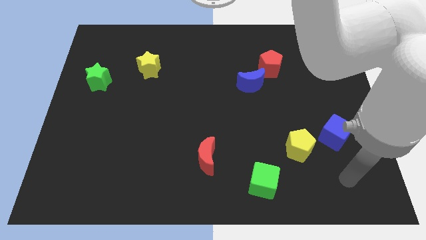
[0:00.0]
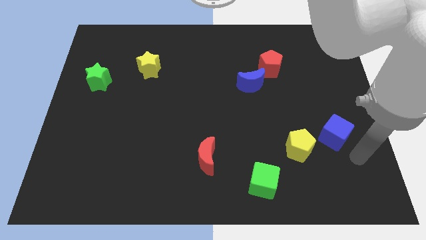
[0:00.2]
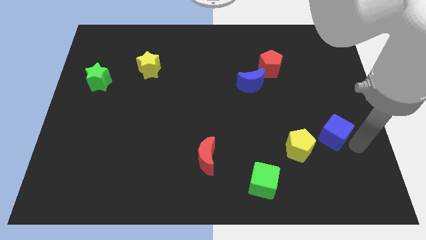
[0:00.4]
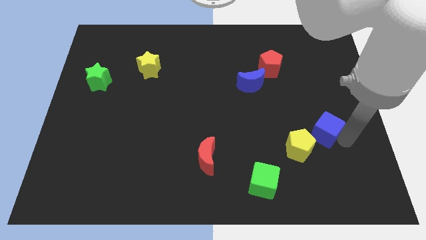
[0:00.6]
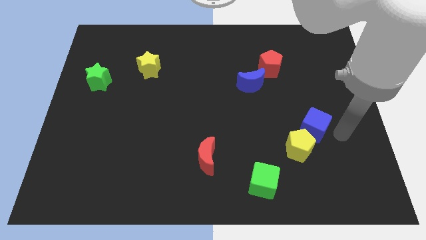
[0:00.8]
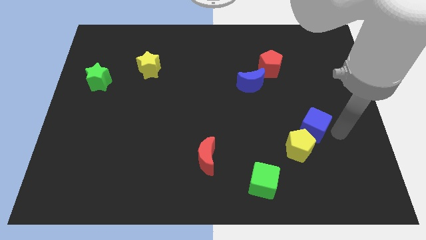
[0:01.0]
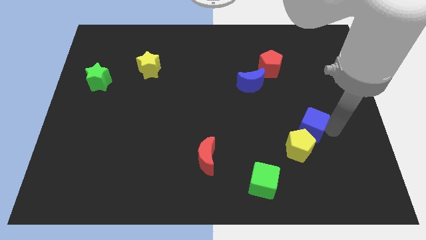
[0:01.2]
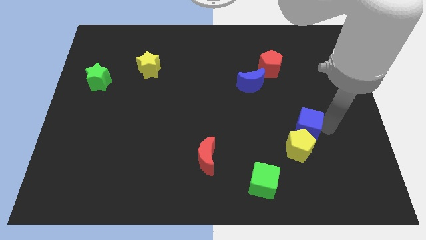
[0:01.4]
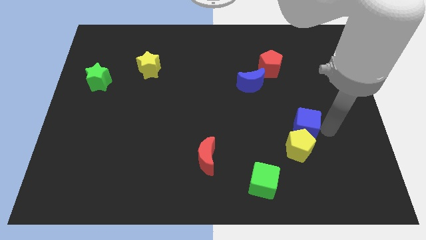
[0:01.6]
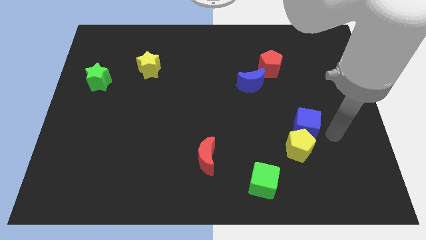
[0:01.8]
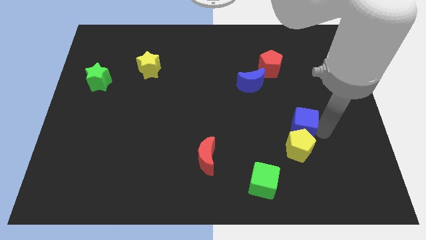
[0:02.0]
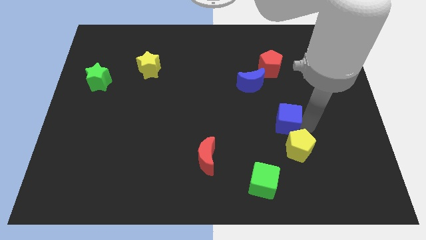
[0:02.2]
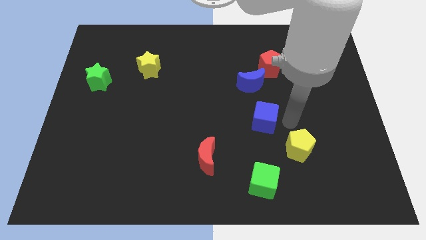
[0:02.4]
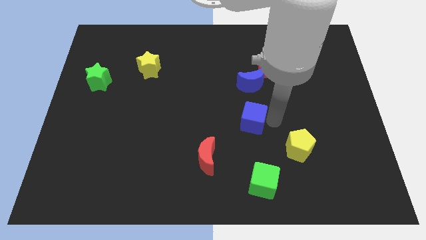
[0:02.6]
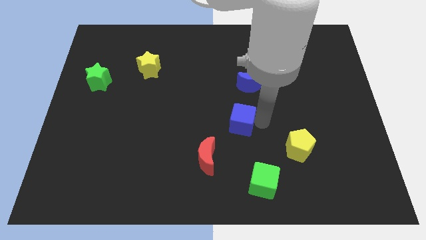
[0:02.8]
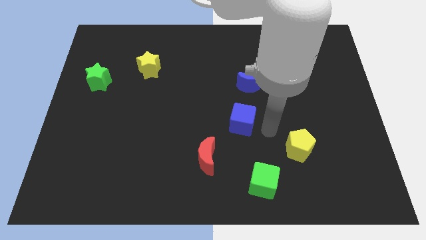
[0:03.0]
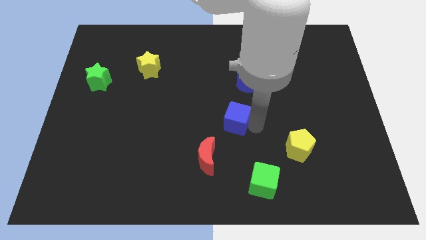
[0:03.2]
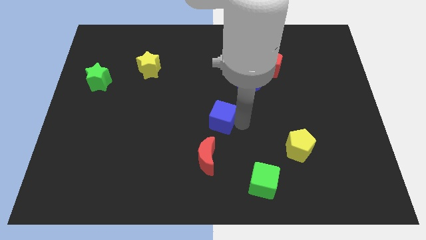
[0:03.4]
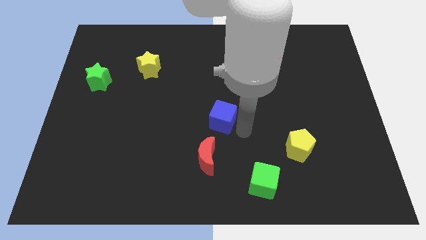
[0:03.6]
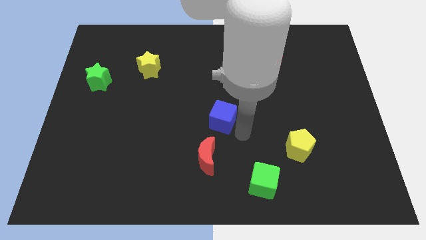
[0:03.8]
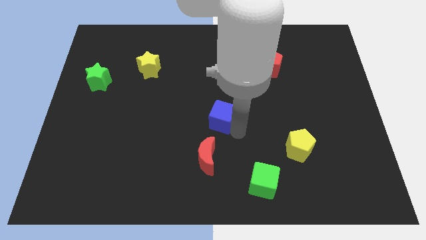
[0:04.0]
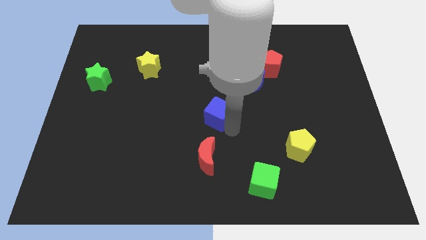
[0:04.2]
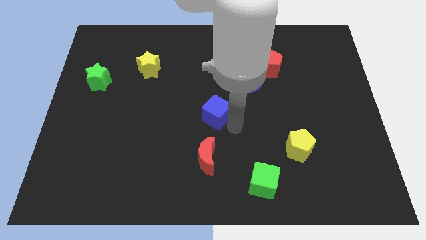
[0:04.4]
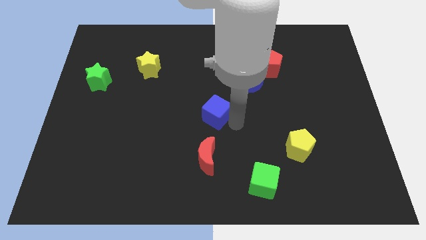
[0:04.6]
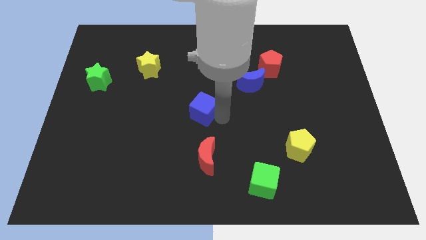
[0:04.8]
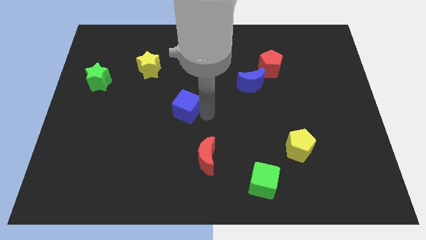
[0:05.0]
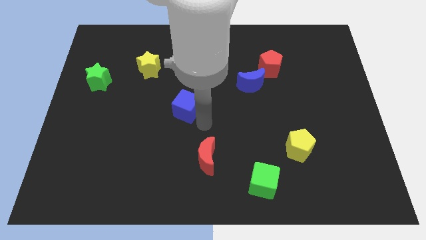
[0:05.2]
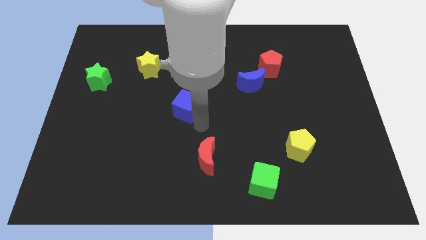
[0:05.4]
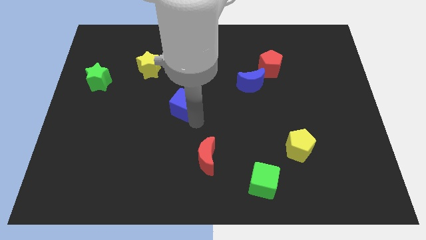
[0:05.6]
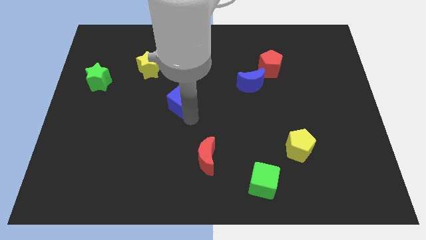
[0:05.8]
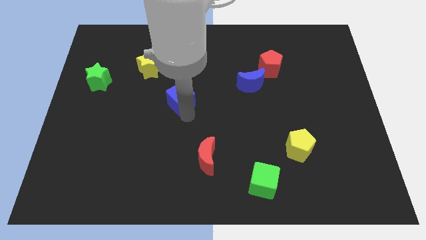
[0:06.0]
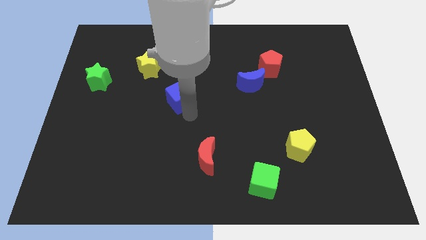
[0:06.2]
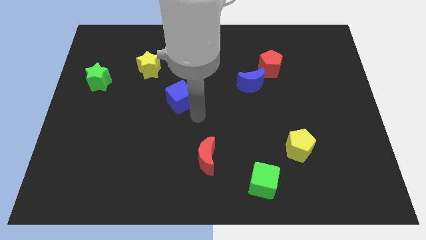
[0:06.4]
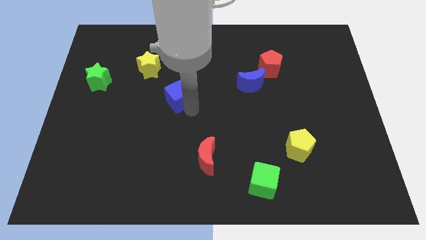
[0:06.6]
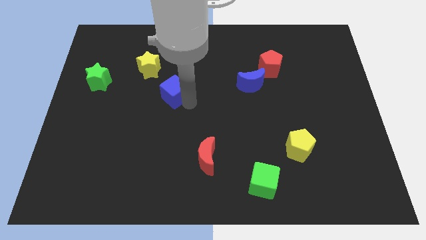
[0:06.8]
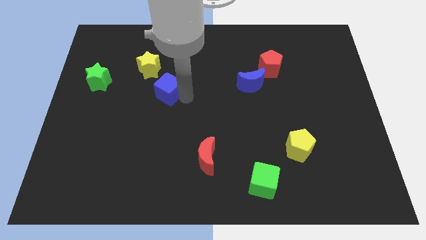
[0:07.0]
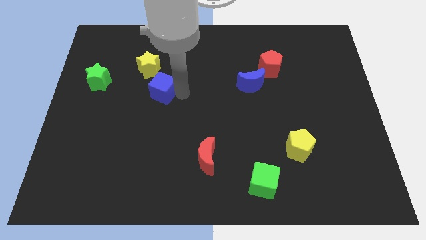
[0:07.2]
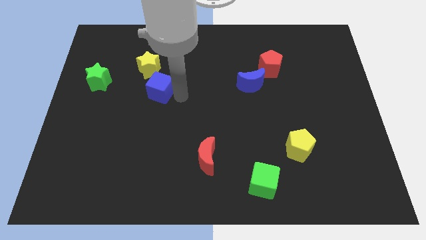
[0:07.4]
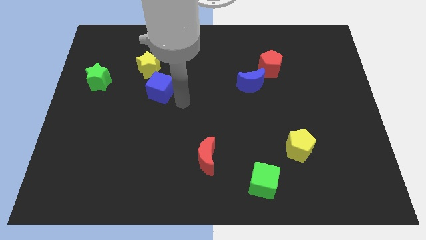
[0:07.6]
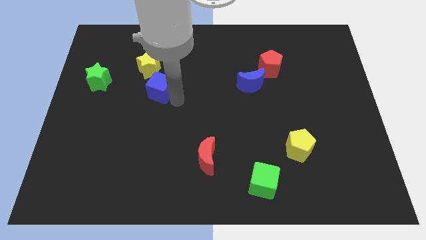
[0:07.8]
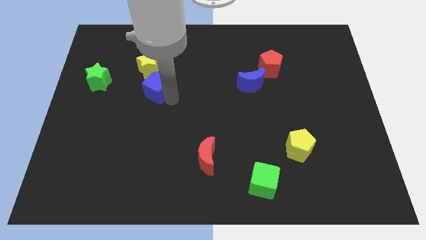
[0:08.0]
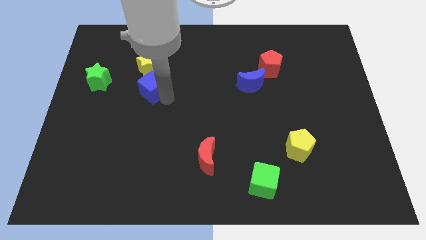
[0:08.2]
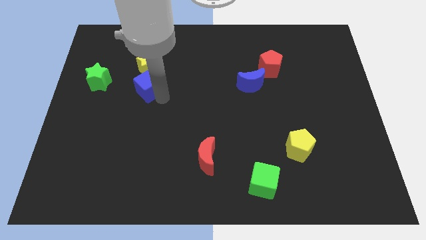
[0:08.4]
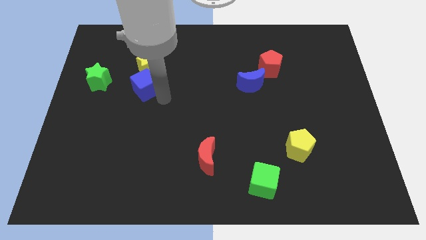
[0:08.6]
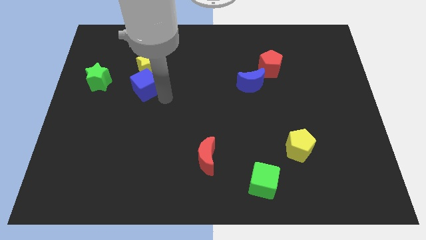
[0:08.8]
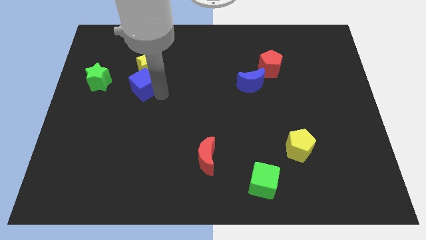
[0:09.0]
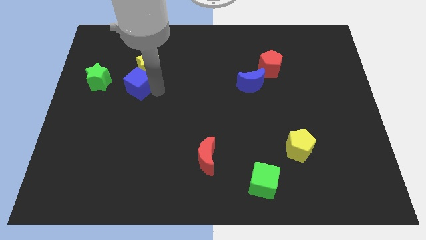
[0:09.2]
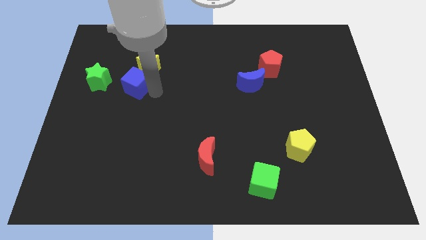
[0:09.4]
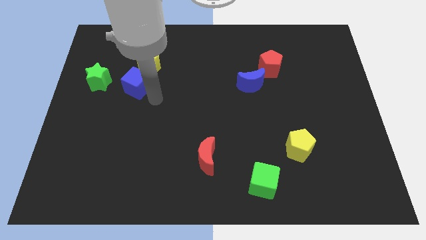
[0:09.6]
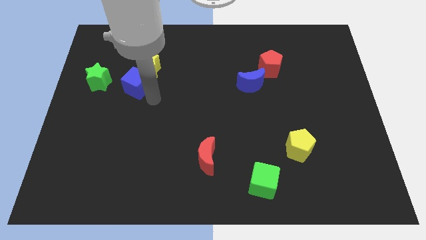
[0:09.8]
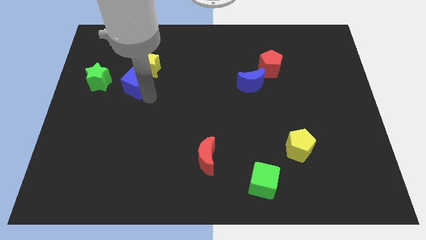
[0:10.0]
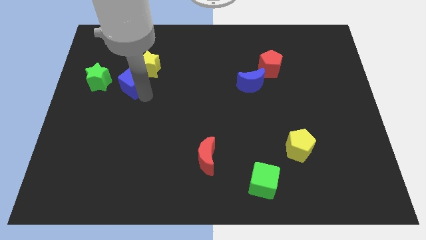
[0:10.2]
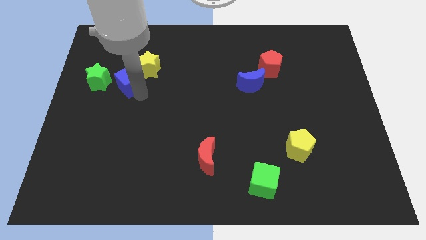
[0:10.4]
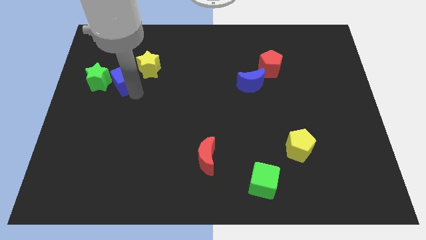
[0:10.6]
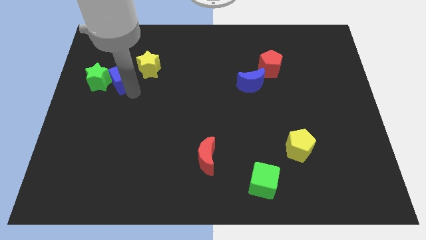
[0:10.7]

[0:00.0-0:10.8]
put the blue cube diagonally up and to the right of the green star

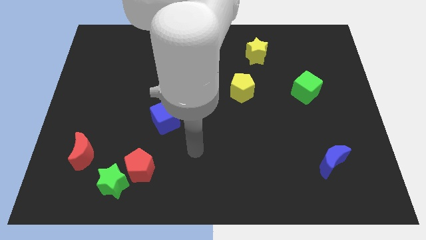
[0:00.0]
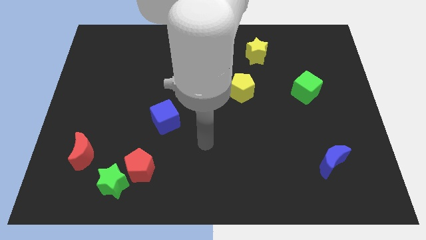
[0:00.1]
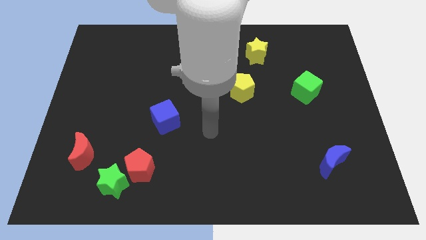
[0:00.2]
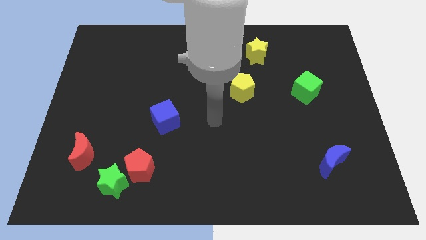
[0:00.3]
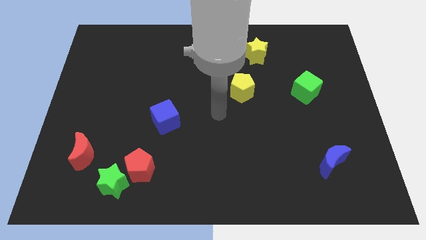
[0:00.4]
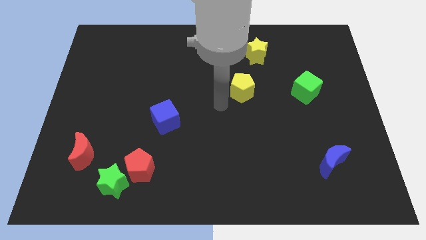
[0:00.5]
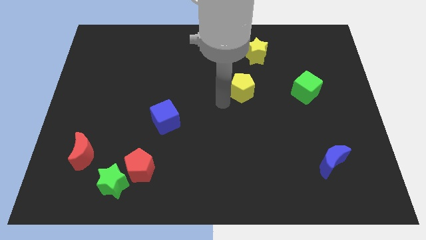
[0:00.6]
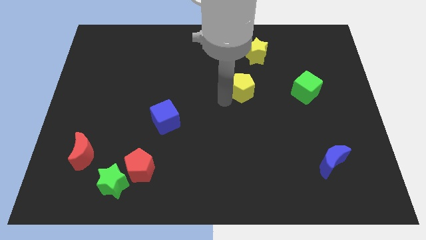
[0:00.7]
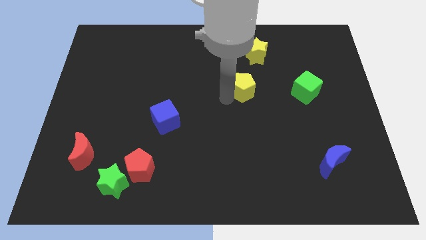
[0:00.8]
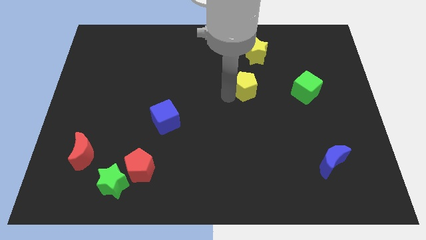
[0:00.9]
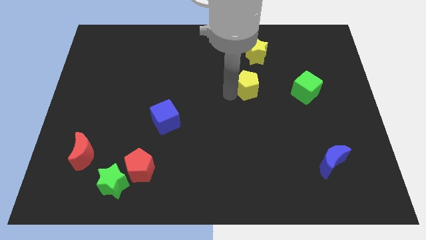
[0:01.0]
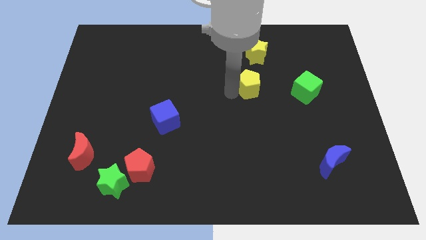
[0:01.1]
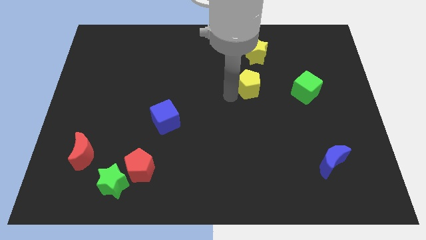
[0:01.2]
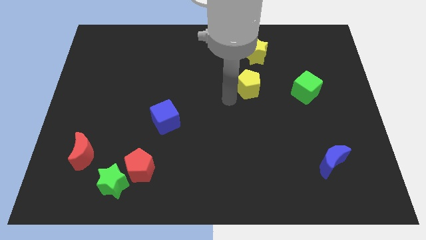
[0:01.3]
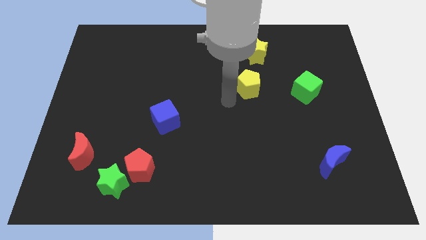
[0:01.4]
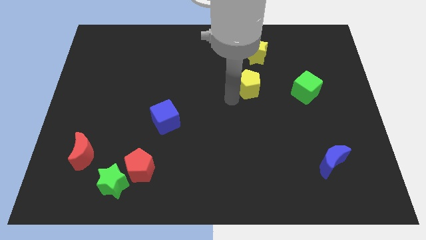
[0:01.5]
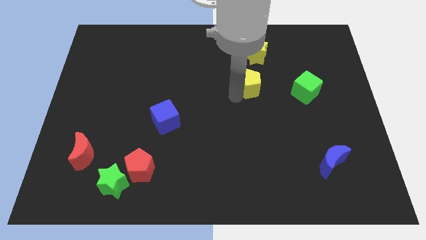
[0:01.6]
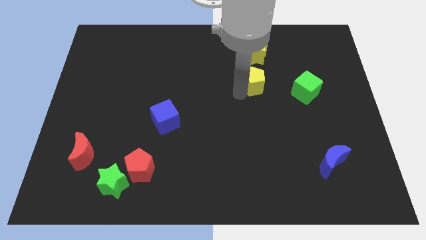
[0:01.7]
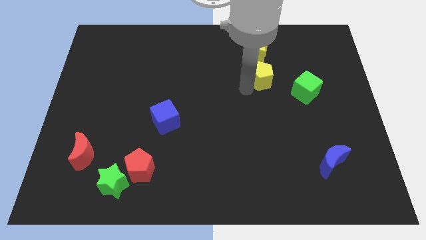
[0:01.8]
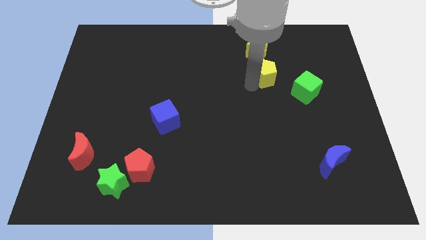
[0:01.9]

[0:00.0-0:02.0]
put the yellow pentagon diagonally down and to the right of the yellow star
